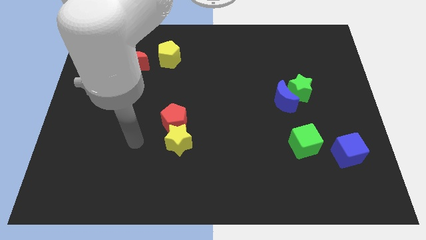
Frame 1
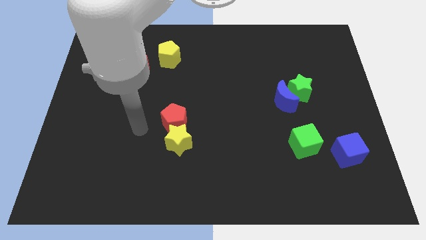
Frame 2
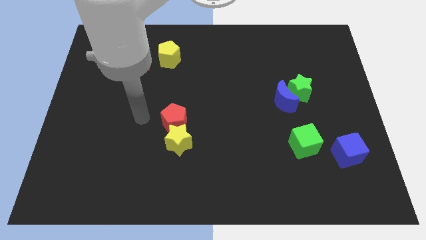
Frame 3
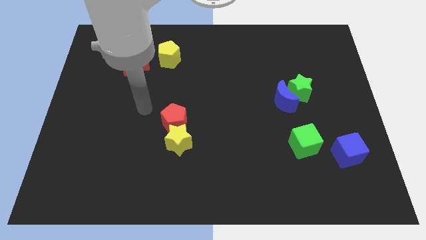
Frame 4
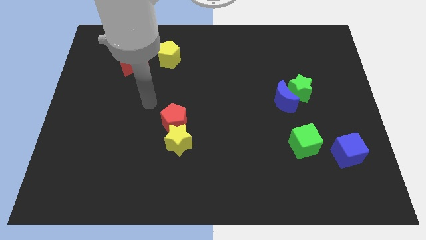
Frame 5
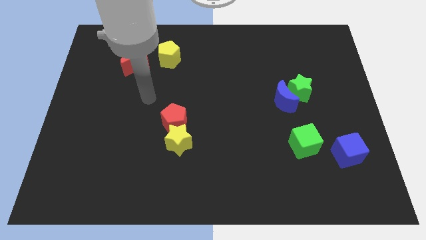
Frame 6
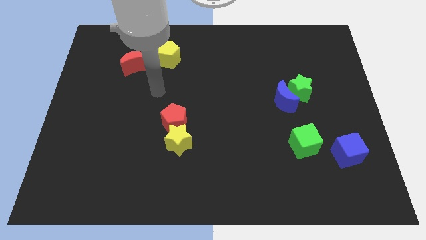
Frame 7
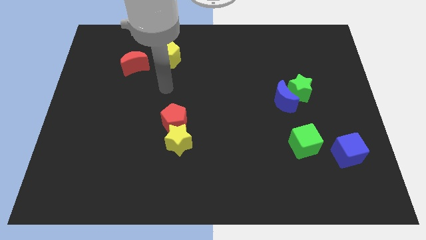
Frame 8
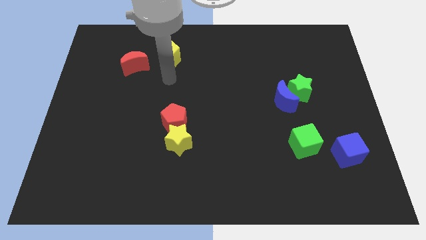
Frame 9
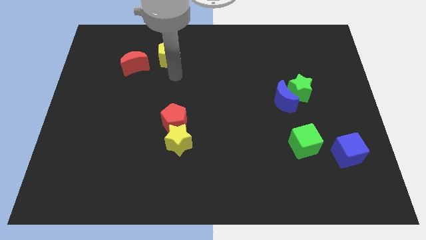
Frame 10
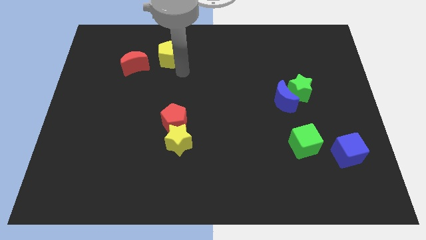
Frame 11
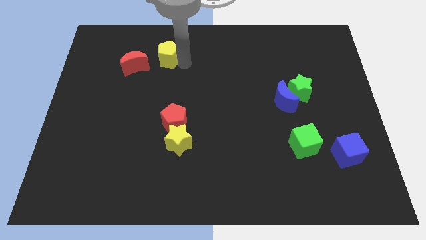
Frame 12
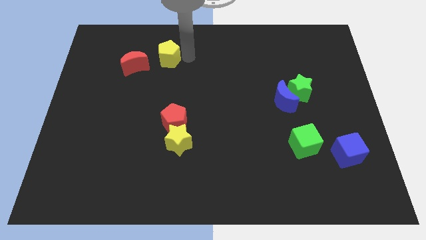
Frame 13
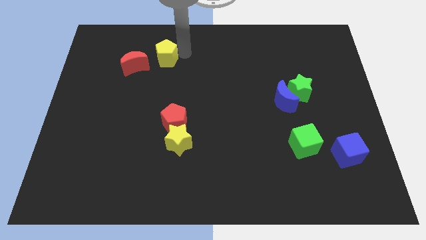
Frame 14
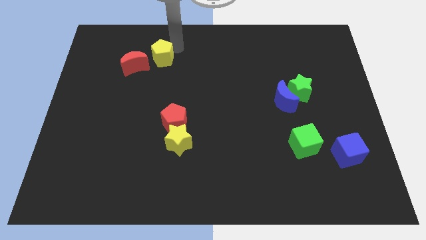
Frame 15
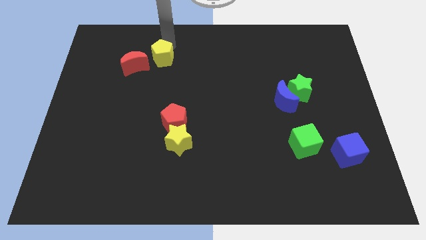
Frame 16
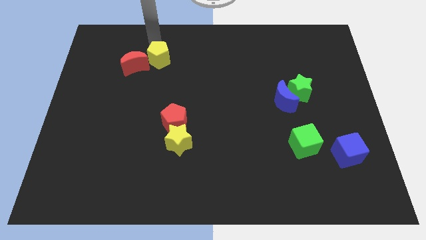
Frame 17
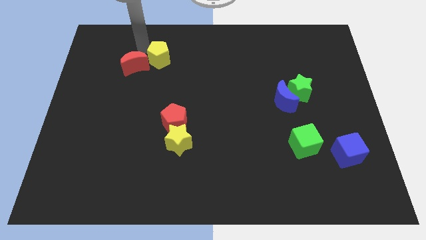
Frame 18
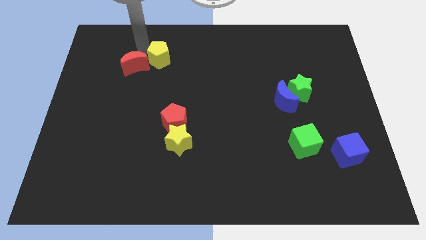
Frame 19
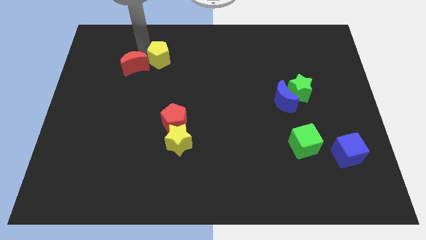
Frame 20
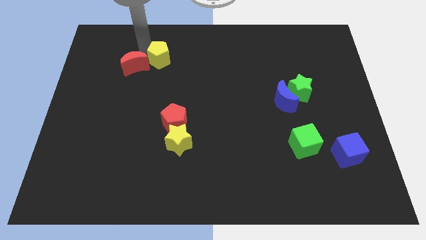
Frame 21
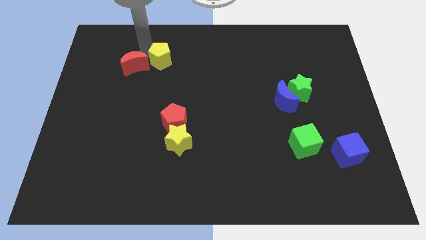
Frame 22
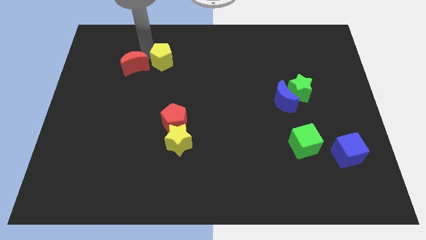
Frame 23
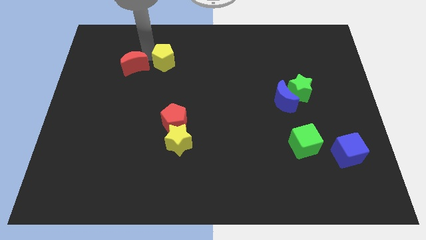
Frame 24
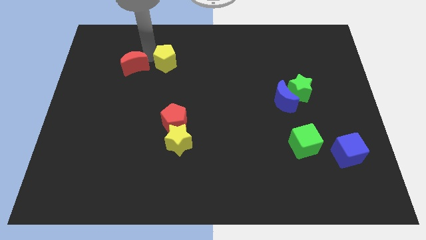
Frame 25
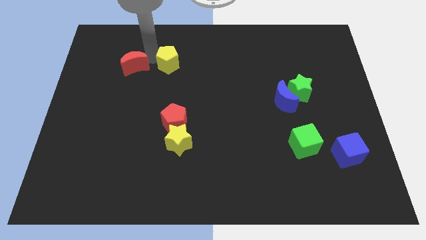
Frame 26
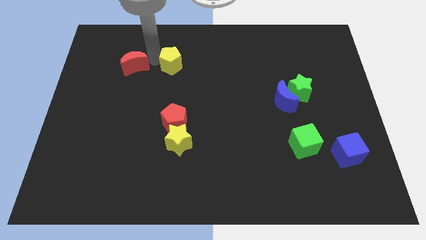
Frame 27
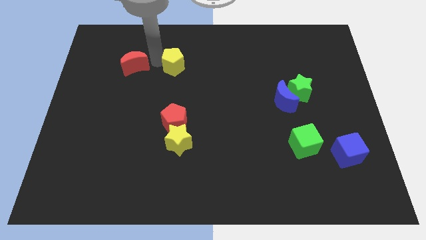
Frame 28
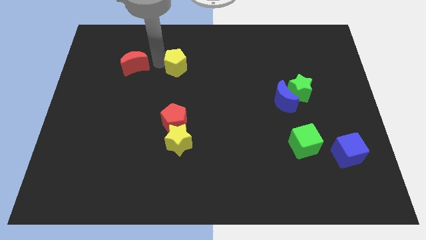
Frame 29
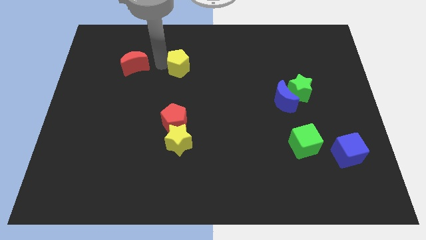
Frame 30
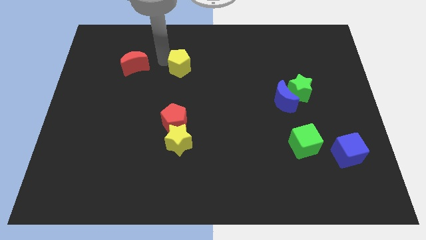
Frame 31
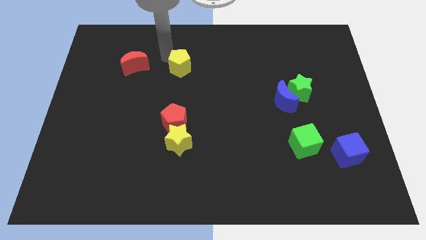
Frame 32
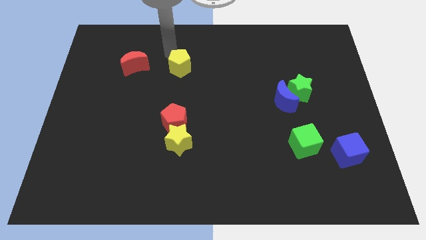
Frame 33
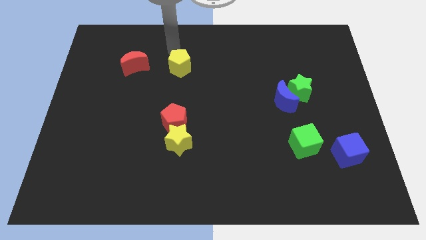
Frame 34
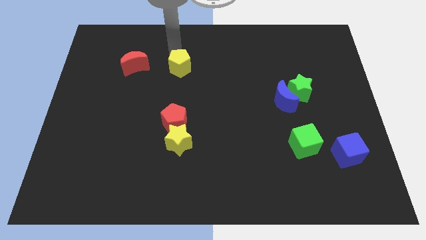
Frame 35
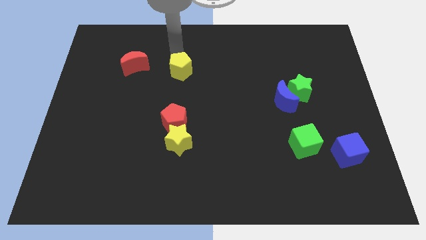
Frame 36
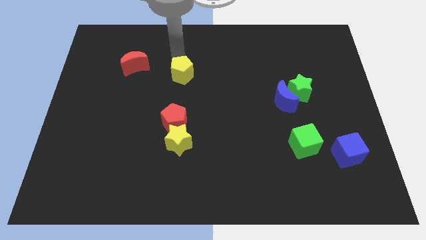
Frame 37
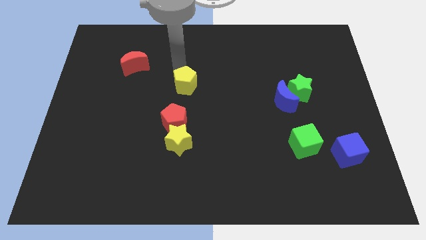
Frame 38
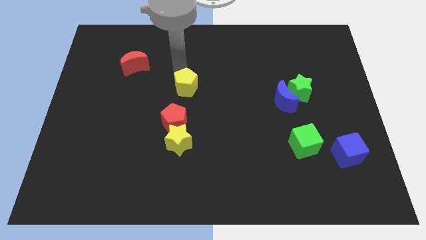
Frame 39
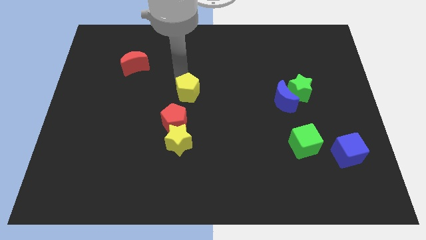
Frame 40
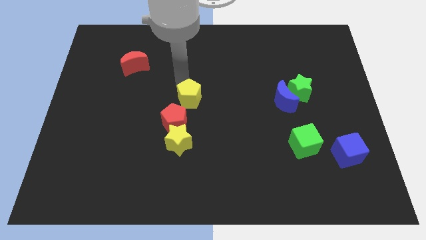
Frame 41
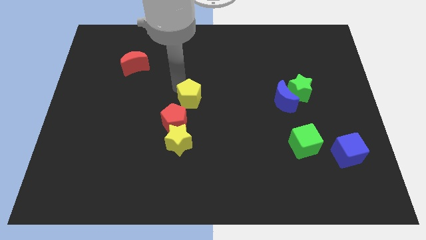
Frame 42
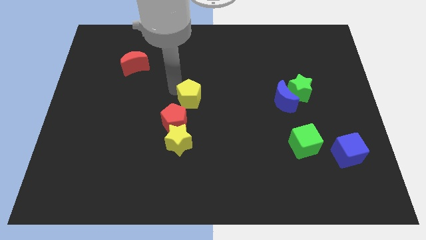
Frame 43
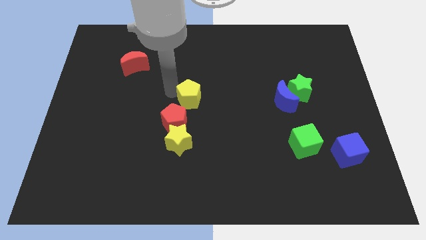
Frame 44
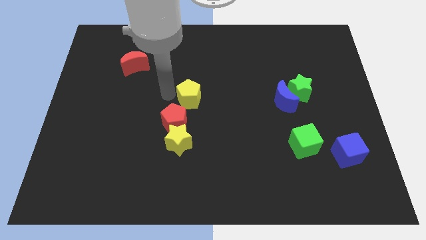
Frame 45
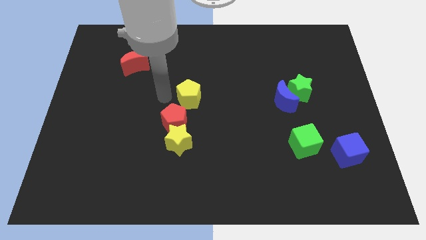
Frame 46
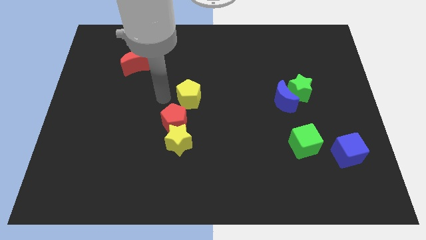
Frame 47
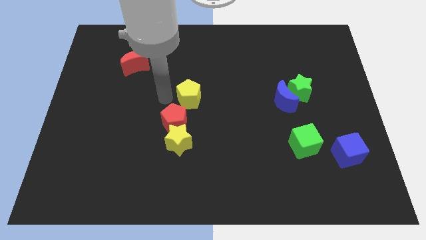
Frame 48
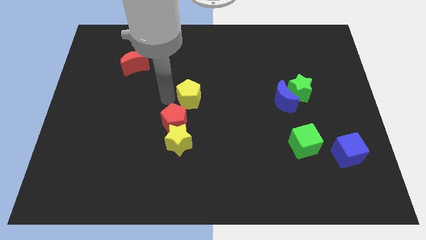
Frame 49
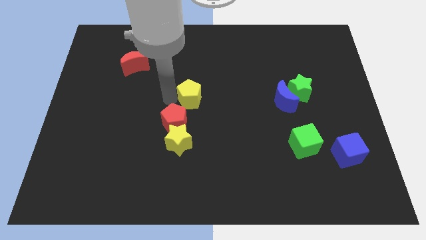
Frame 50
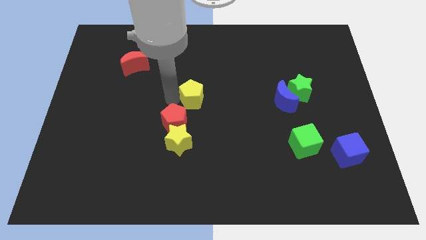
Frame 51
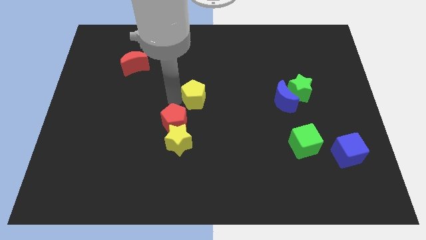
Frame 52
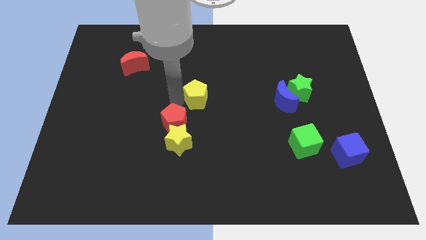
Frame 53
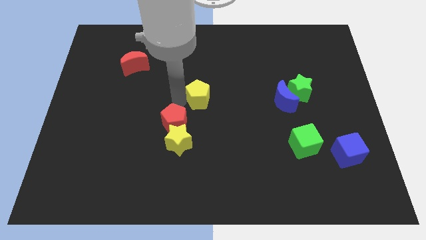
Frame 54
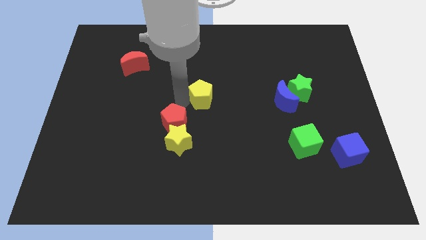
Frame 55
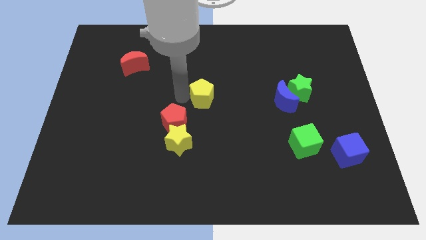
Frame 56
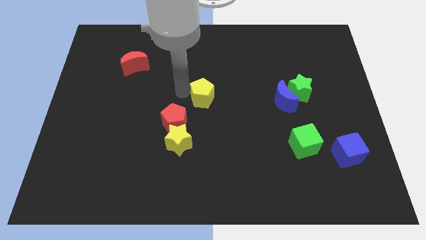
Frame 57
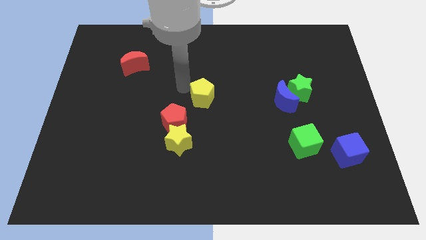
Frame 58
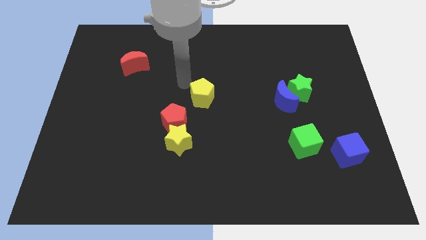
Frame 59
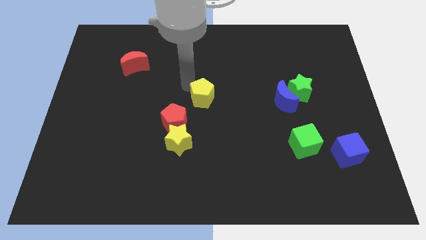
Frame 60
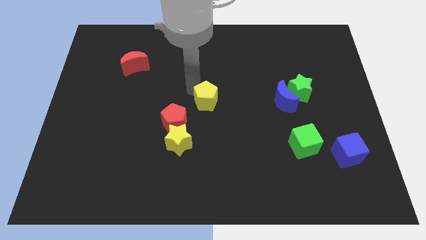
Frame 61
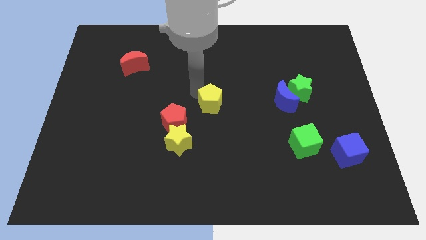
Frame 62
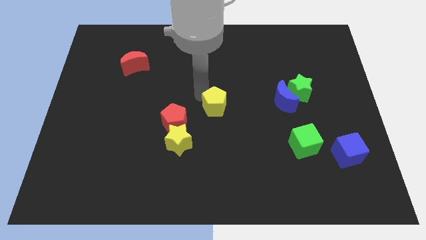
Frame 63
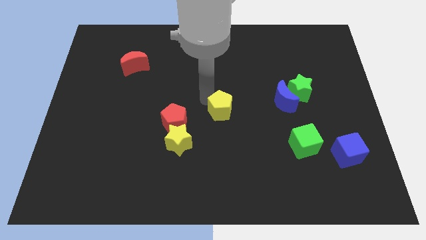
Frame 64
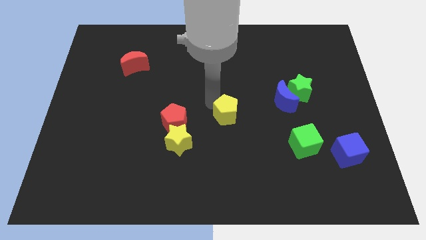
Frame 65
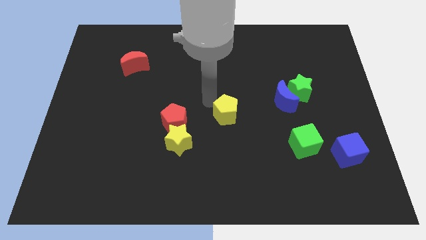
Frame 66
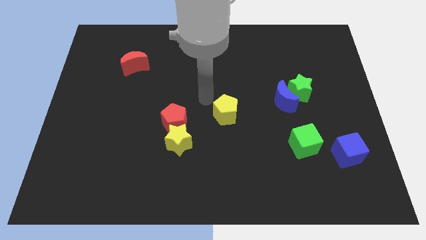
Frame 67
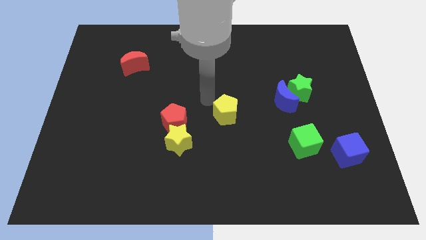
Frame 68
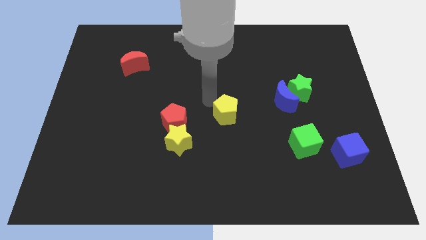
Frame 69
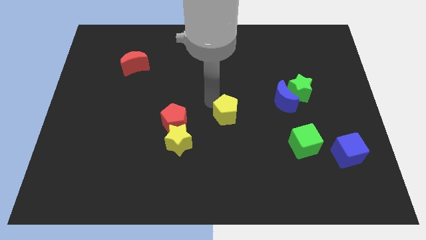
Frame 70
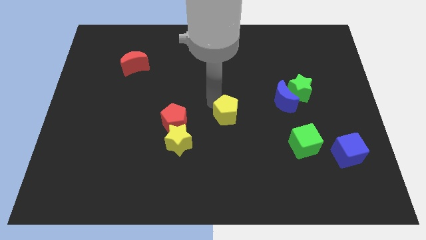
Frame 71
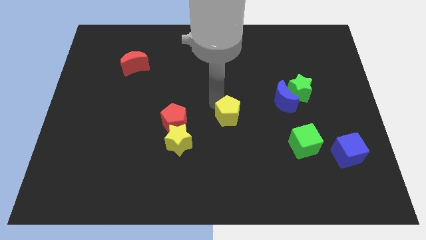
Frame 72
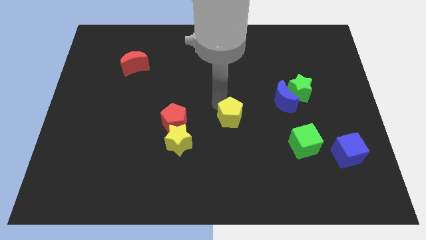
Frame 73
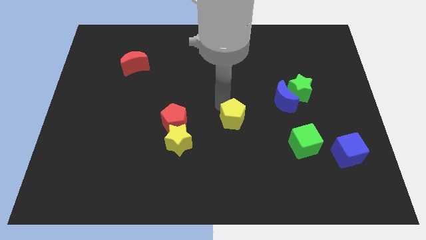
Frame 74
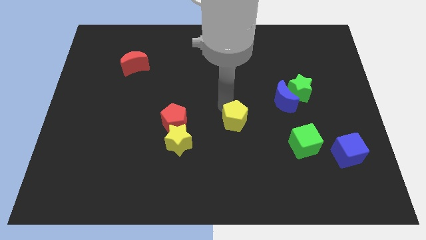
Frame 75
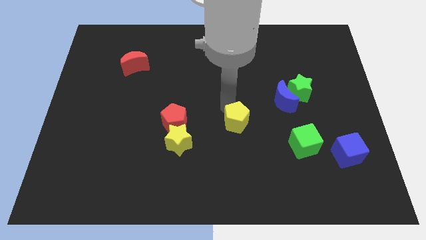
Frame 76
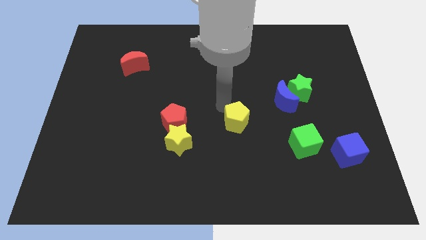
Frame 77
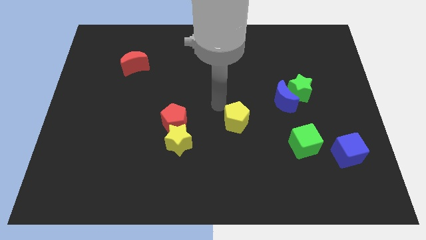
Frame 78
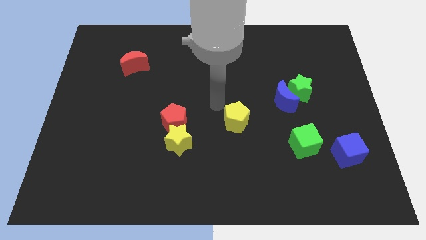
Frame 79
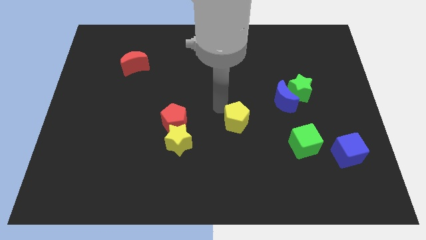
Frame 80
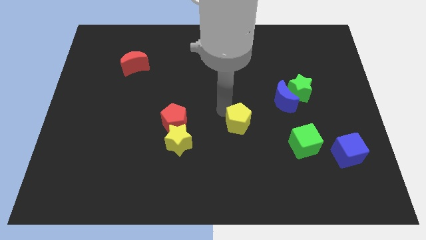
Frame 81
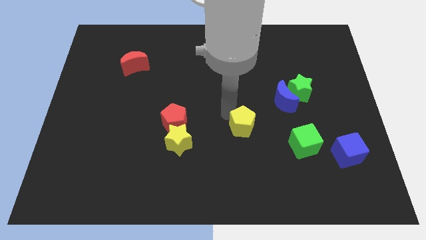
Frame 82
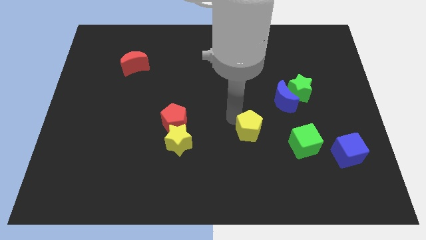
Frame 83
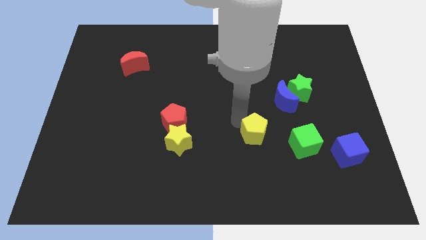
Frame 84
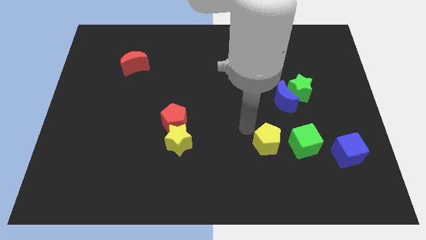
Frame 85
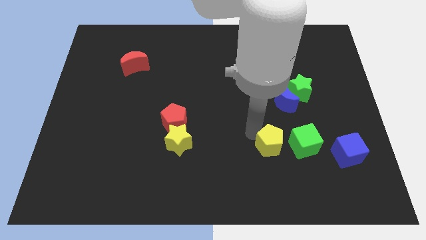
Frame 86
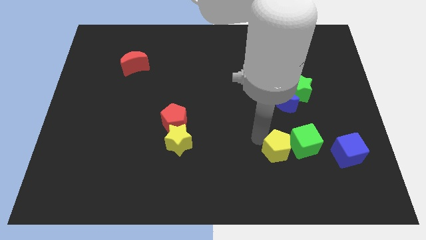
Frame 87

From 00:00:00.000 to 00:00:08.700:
move the yellow pentagon just left of the blue cube
